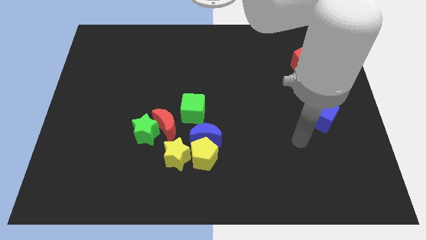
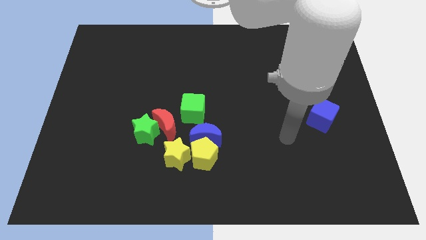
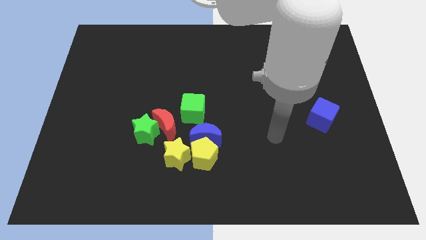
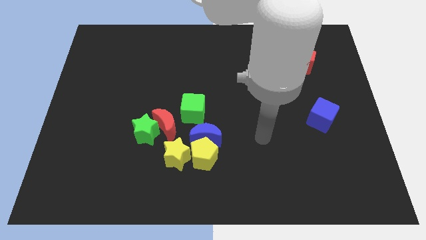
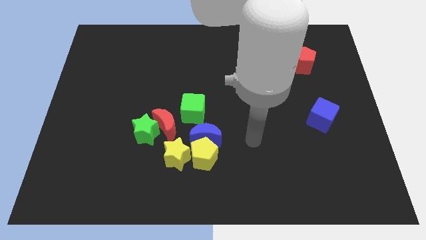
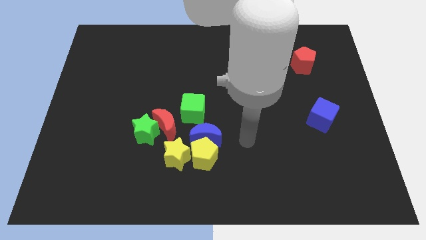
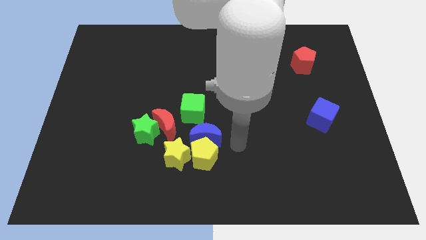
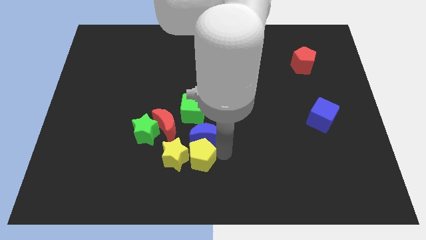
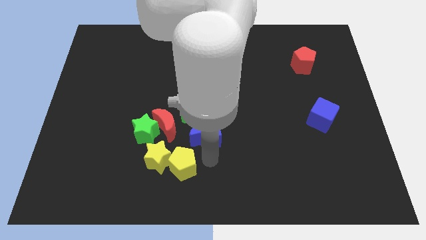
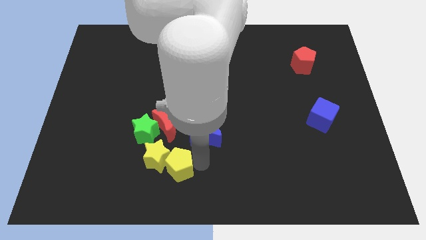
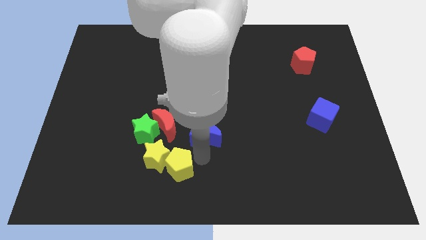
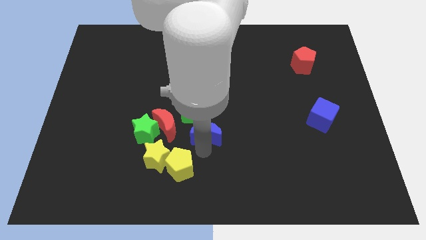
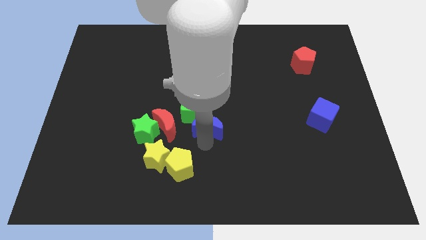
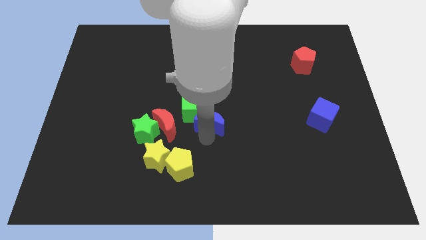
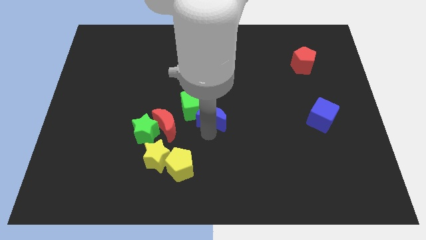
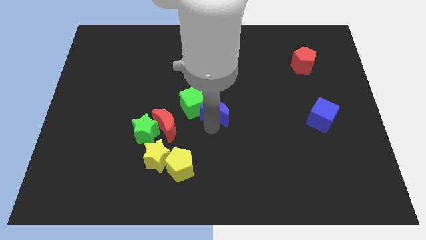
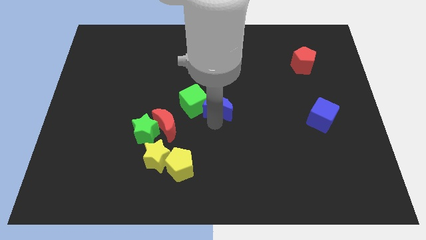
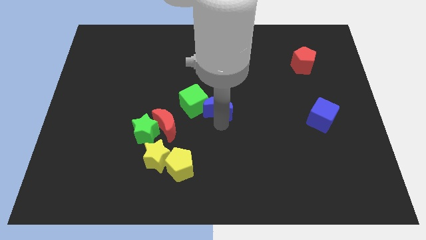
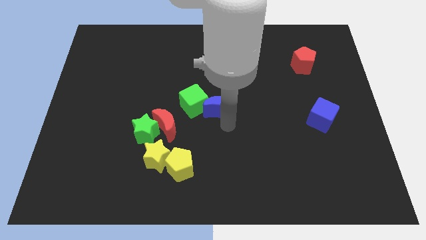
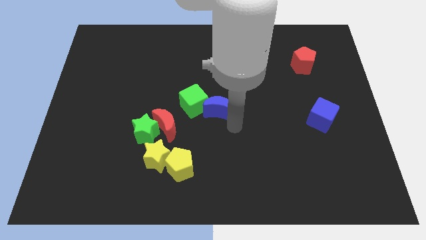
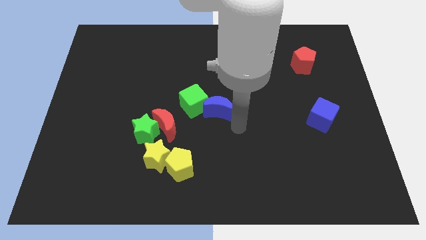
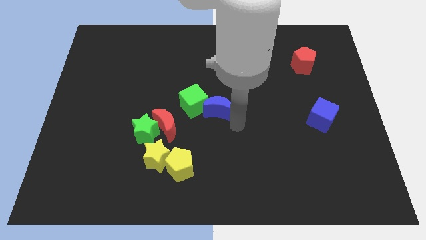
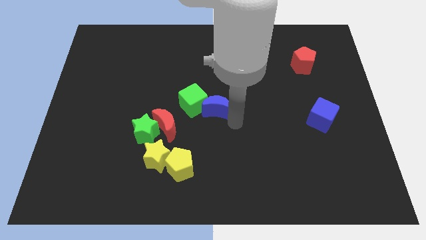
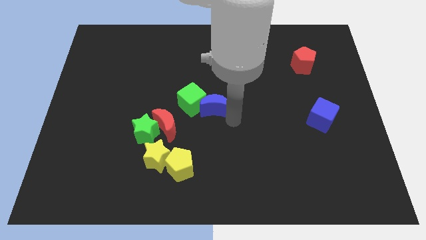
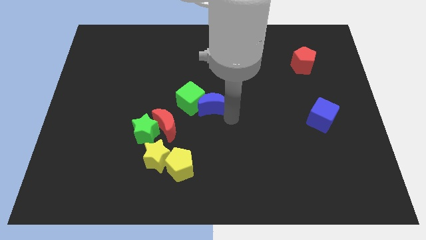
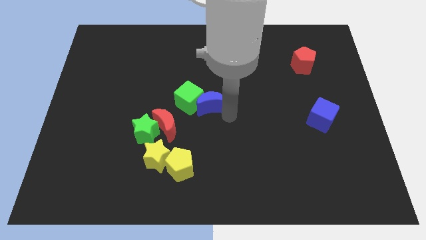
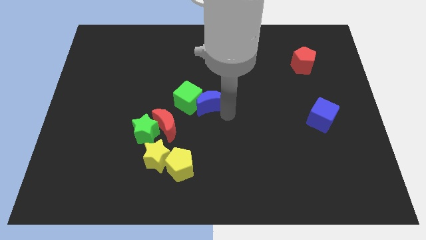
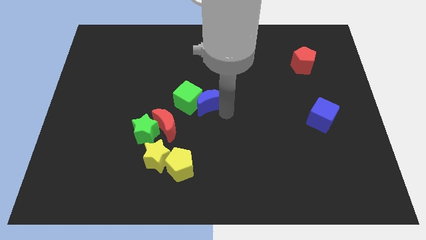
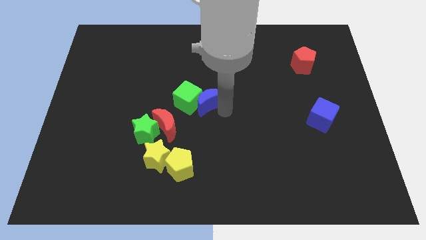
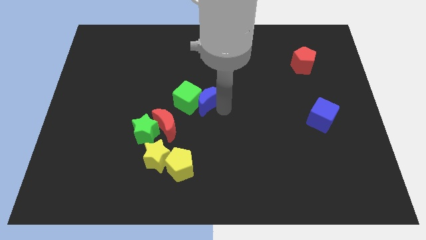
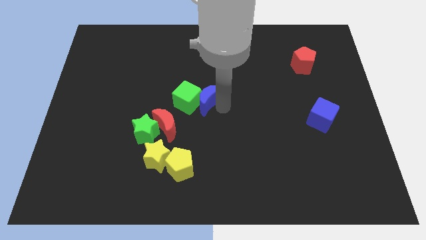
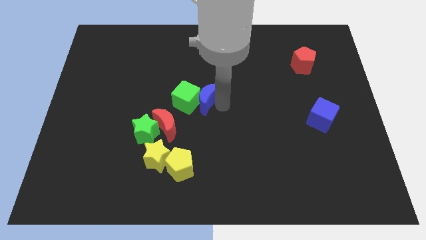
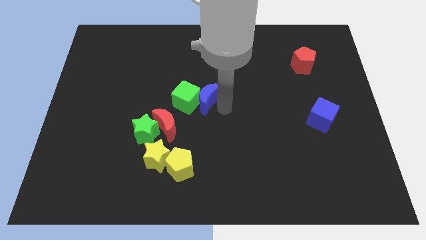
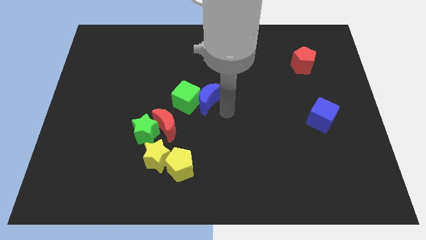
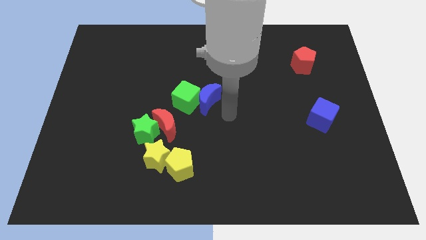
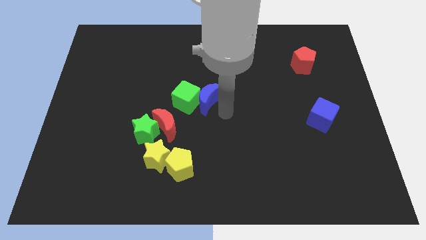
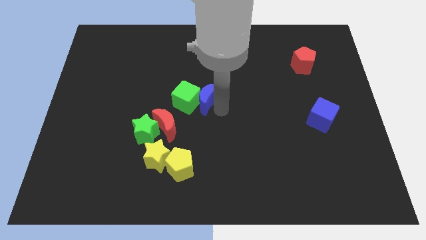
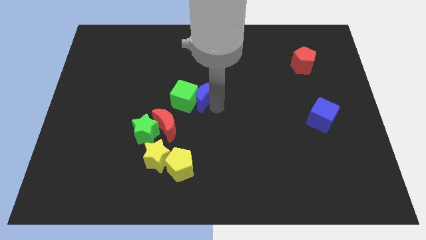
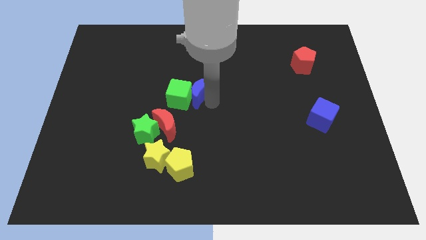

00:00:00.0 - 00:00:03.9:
slightly slide the blue moon upwards and left diagonally

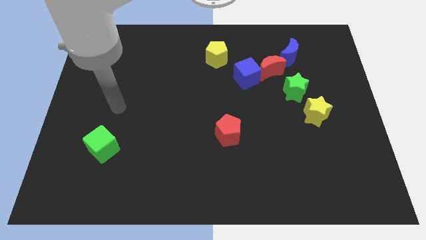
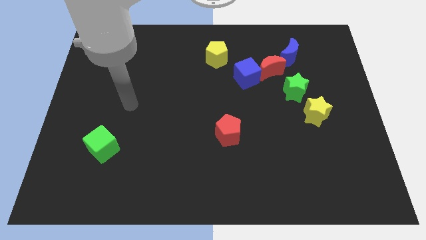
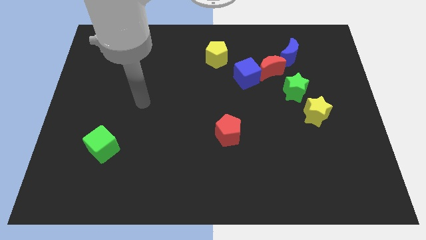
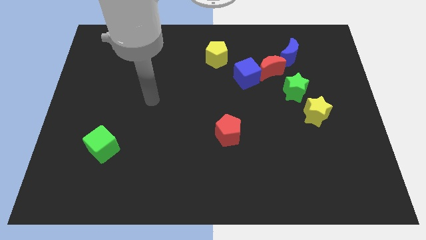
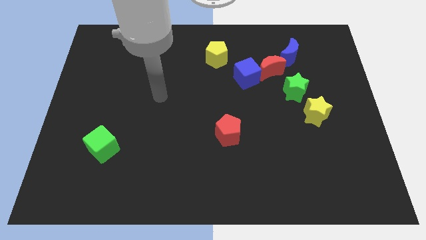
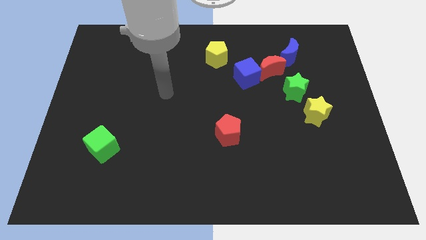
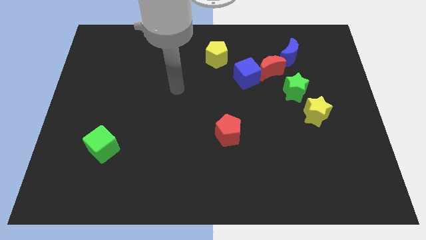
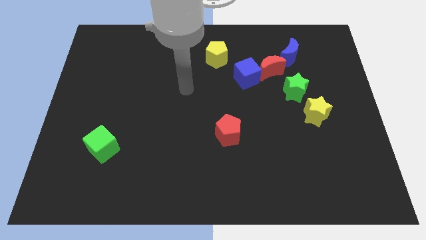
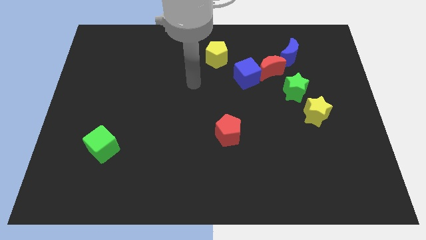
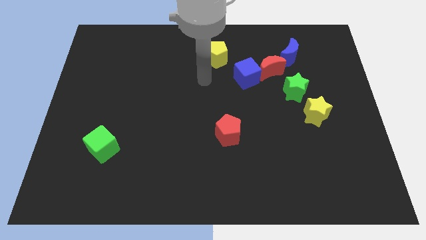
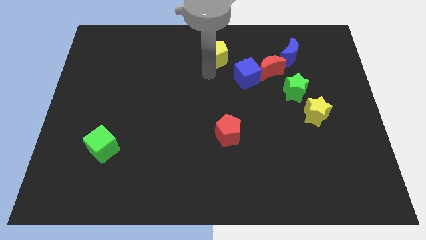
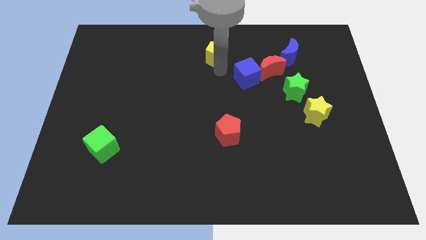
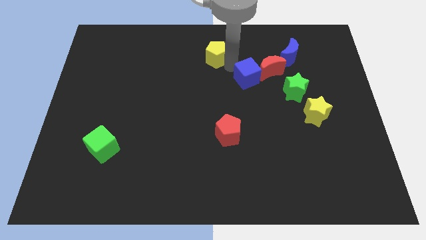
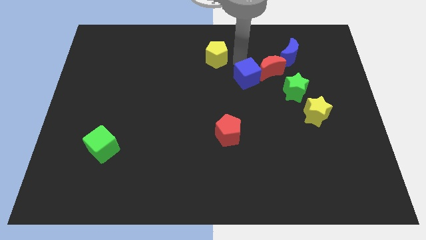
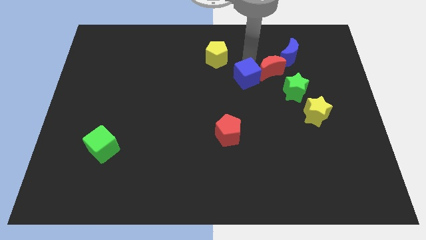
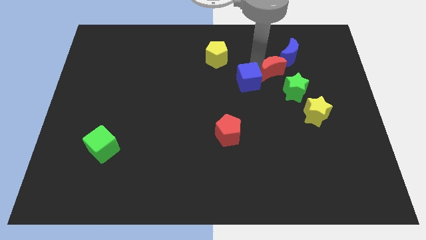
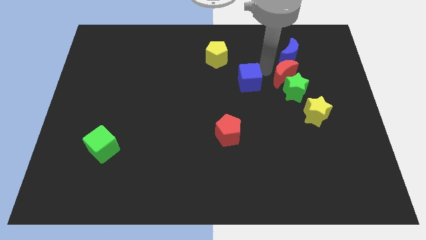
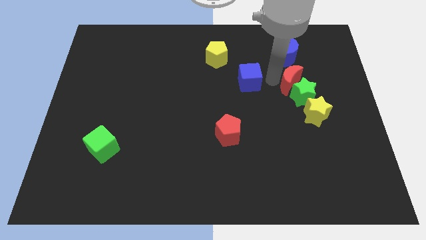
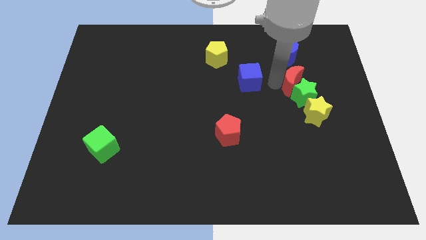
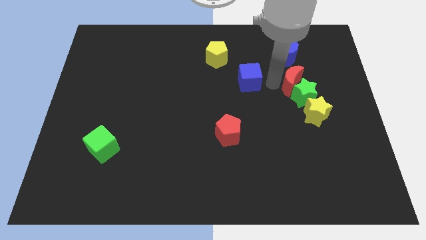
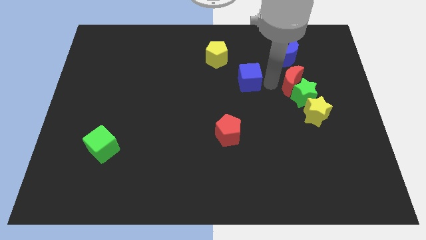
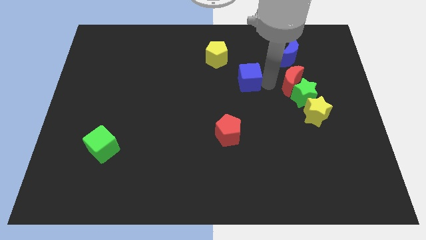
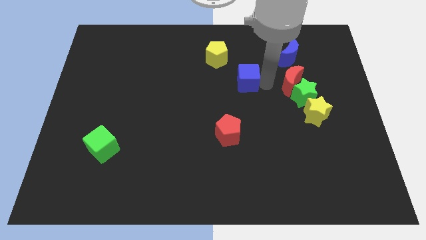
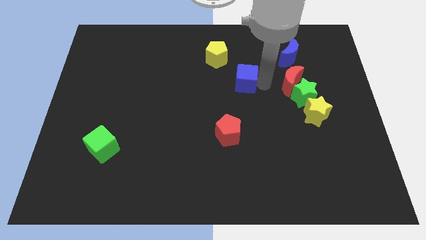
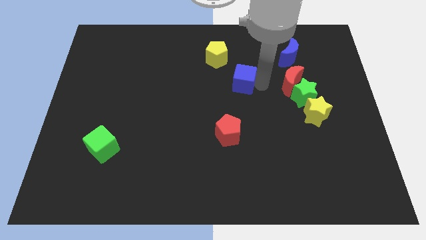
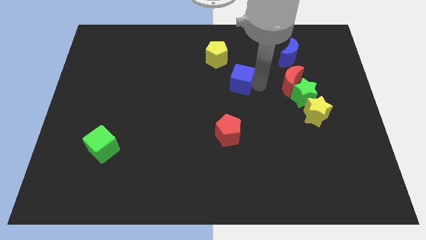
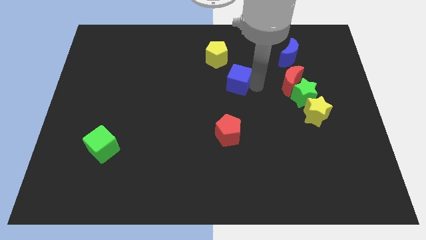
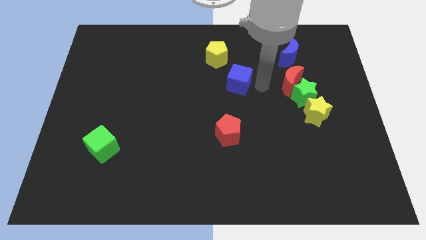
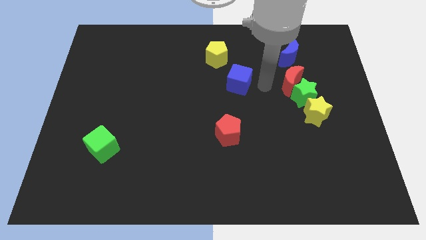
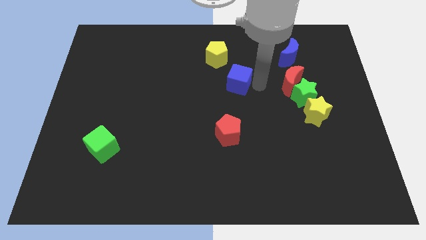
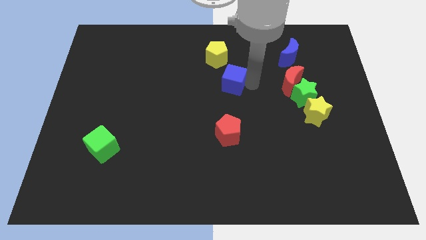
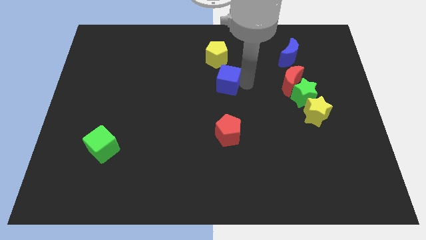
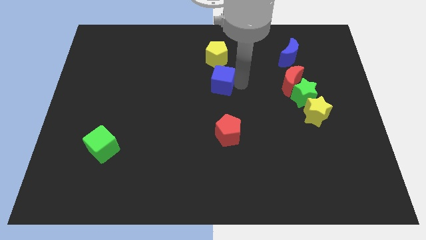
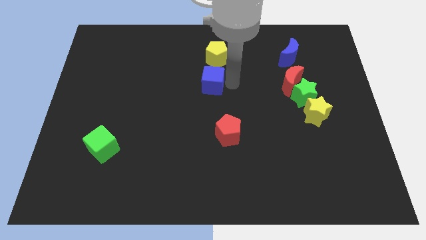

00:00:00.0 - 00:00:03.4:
slide the blue cube a little to the left

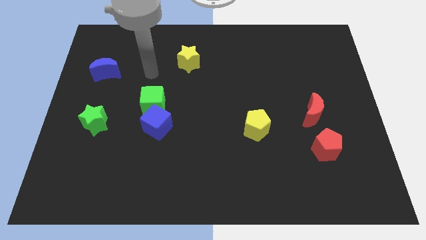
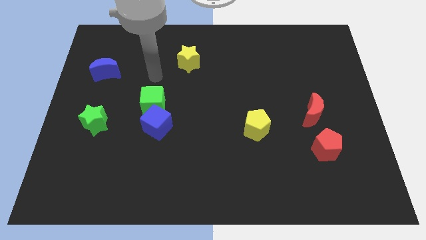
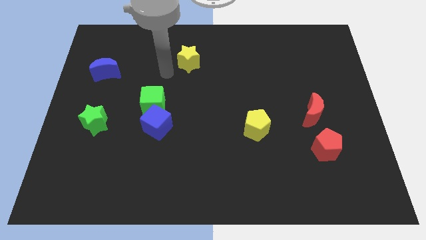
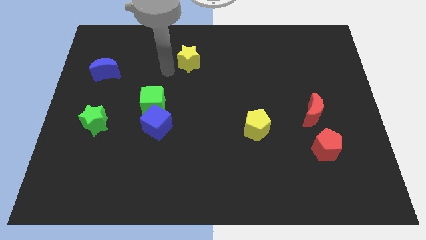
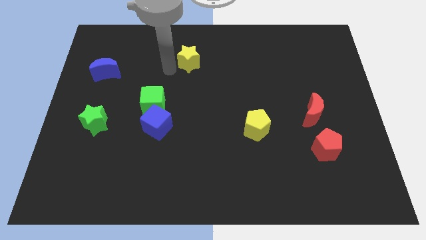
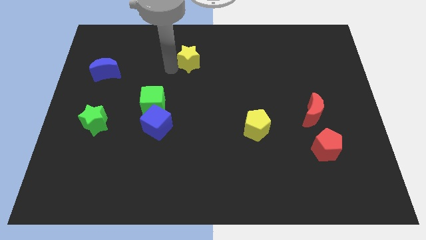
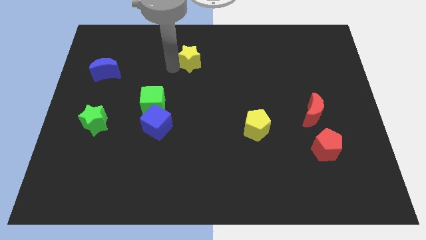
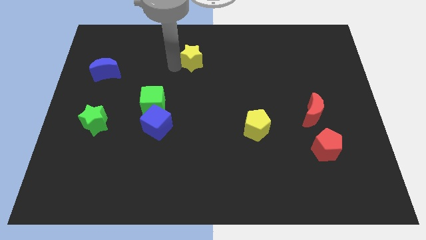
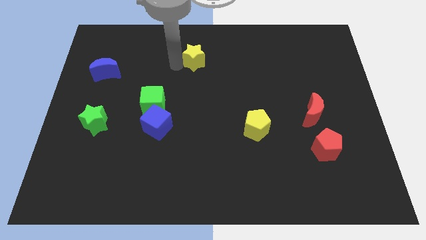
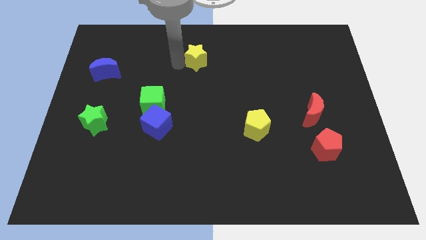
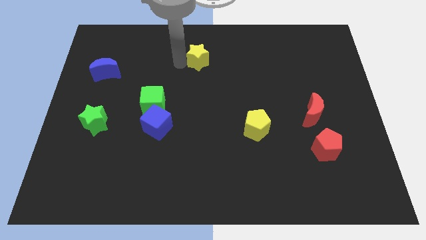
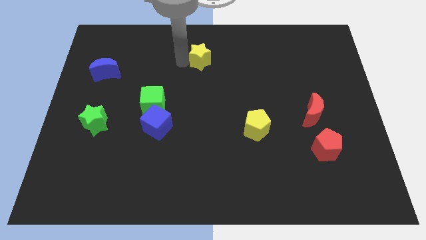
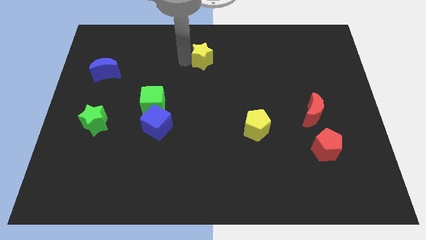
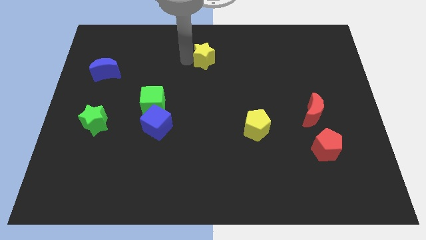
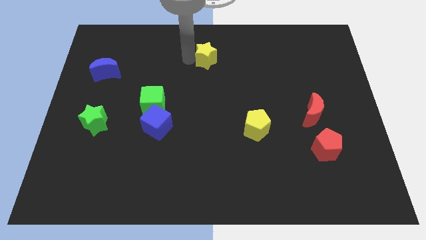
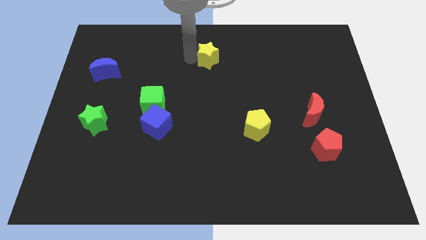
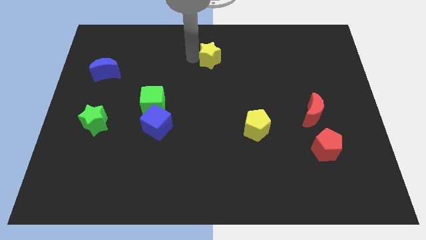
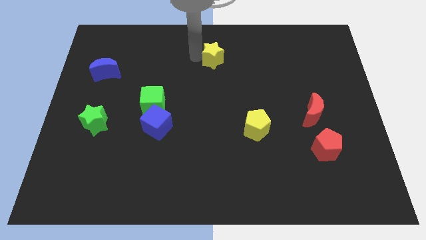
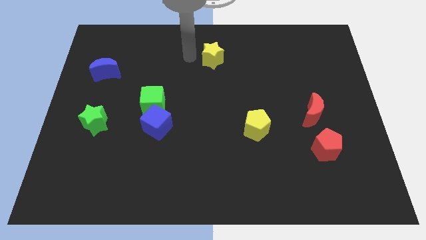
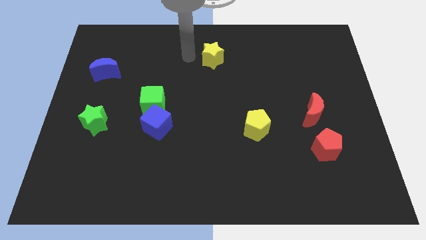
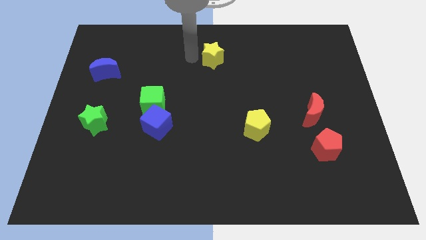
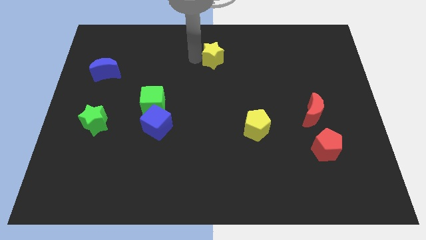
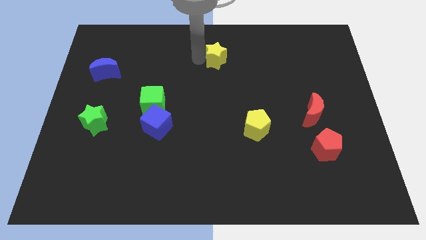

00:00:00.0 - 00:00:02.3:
push the yellow star to the right slightly
